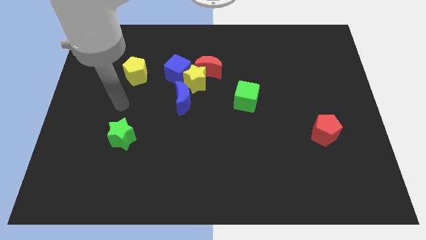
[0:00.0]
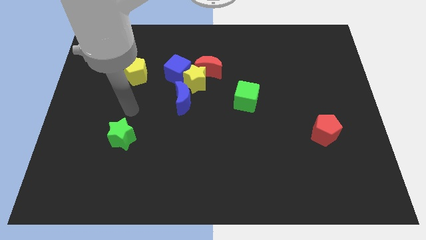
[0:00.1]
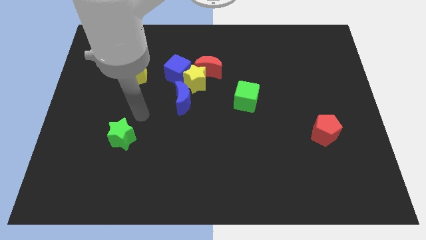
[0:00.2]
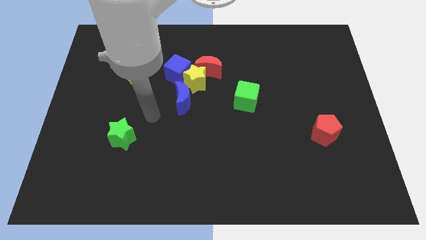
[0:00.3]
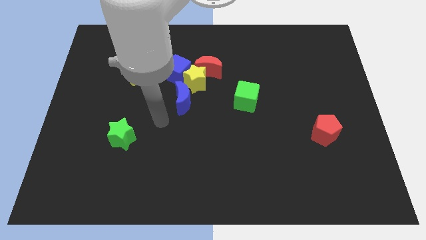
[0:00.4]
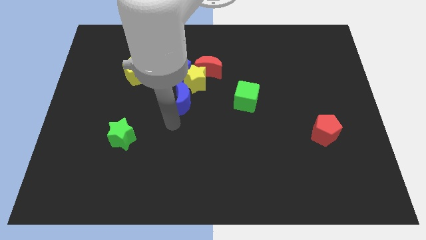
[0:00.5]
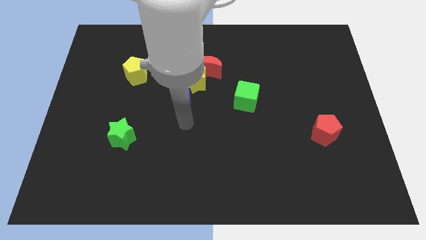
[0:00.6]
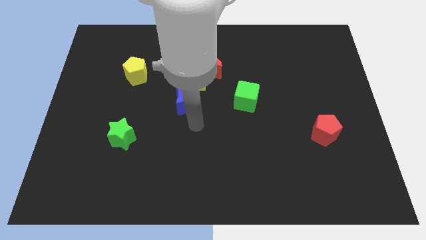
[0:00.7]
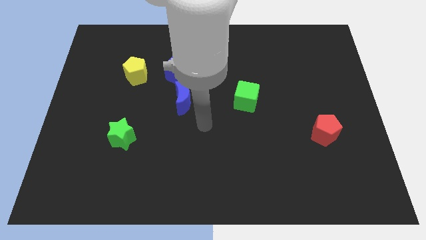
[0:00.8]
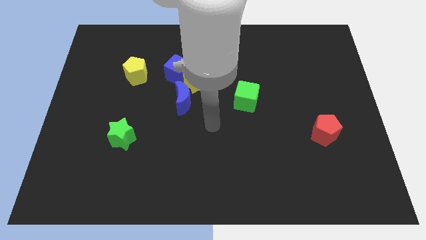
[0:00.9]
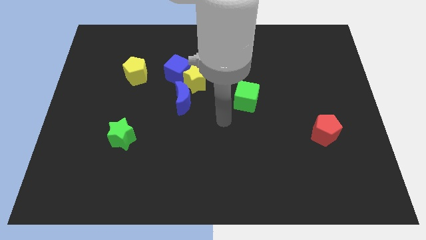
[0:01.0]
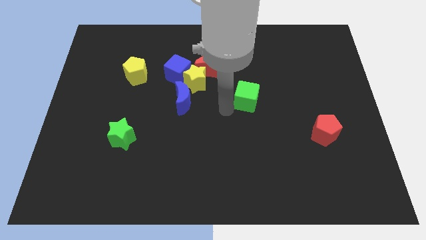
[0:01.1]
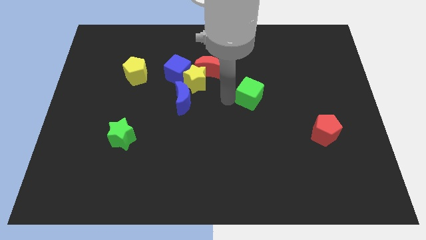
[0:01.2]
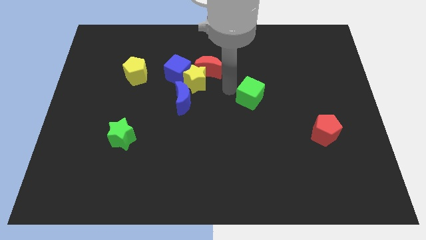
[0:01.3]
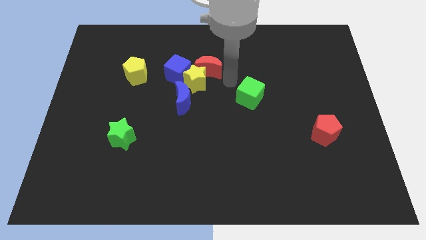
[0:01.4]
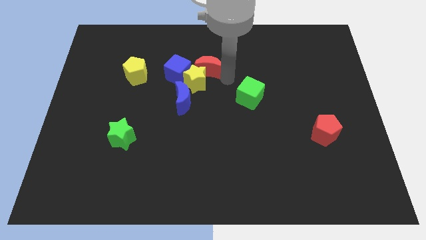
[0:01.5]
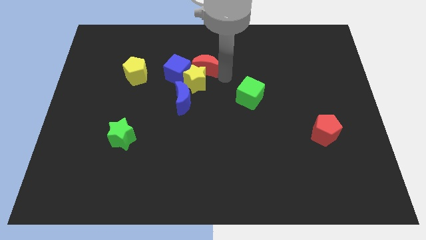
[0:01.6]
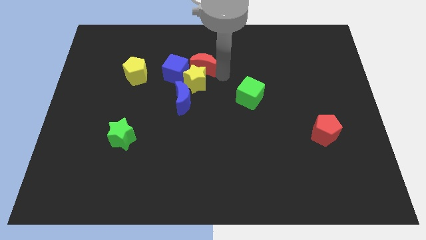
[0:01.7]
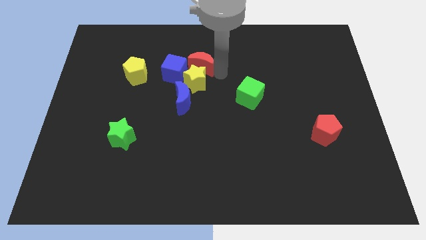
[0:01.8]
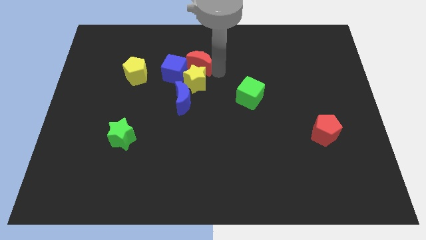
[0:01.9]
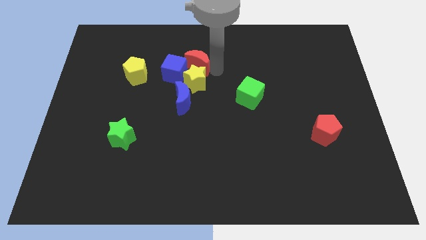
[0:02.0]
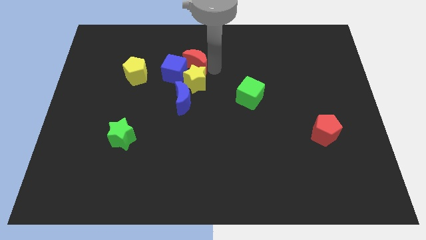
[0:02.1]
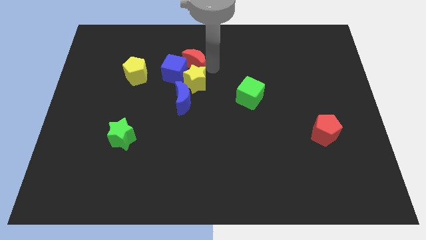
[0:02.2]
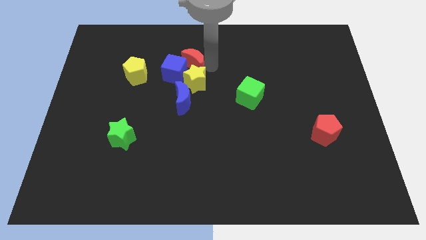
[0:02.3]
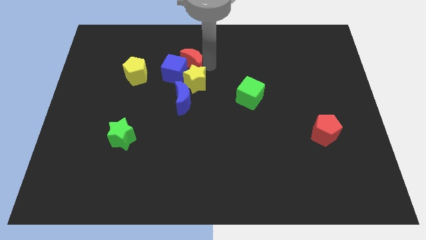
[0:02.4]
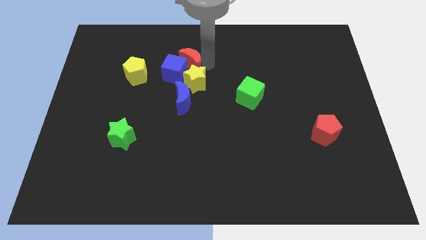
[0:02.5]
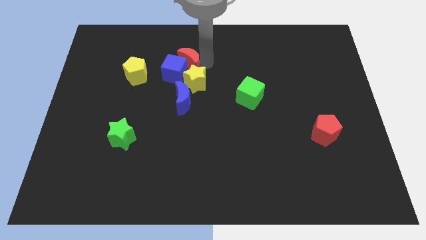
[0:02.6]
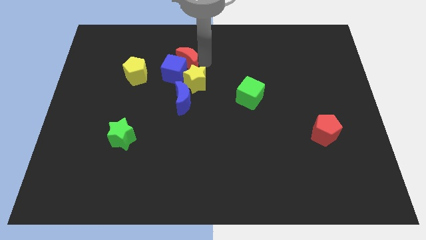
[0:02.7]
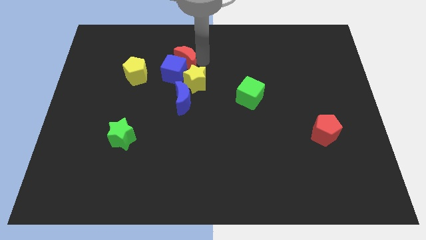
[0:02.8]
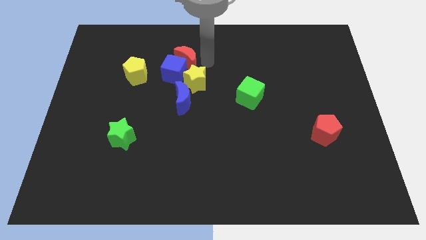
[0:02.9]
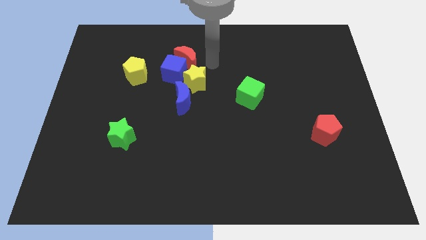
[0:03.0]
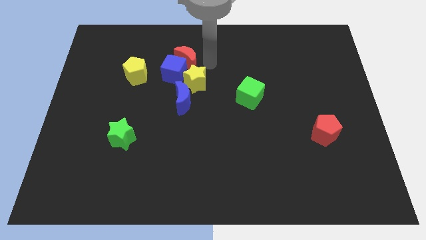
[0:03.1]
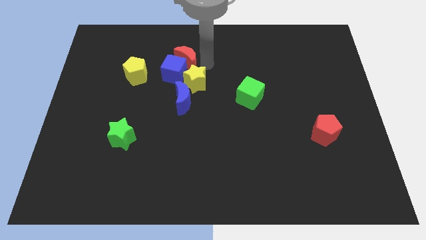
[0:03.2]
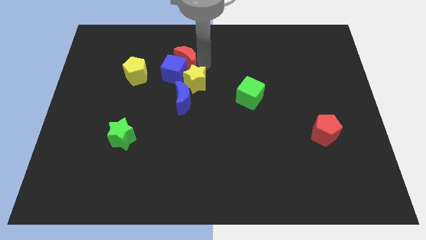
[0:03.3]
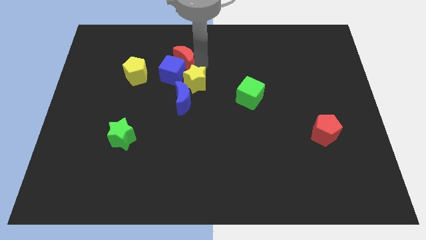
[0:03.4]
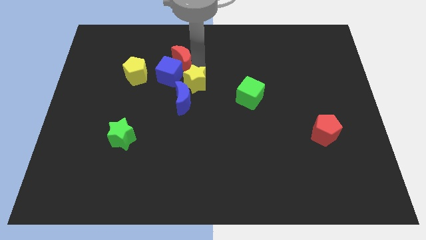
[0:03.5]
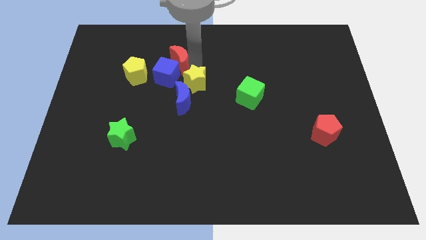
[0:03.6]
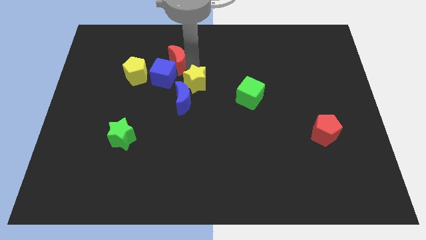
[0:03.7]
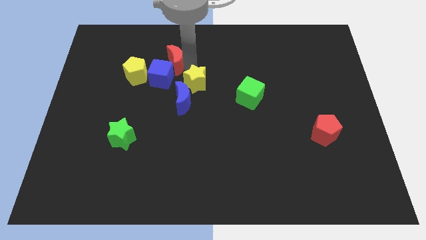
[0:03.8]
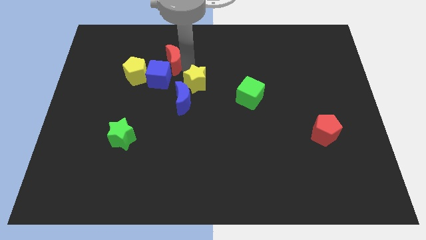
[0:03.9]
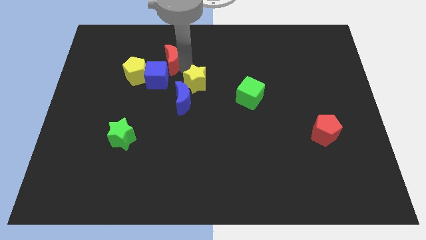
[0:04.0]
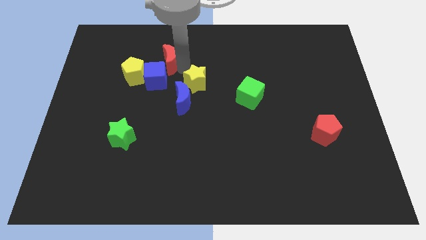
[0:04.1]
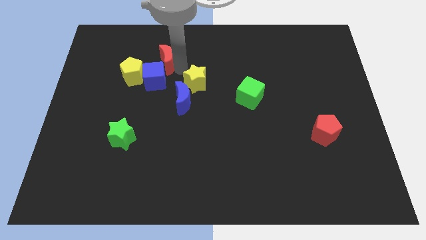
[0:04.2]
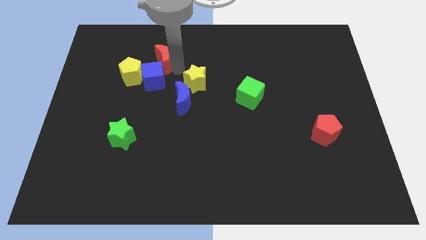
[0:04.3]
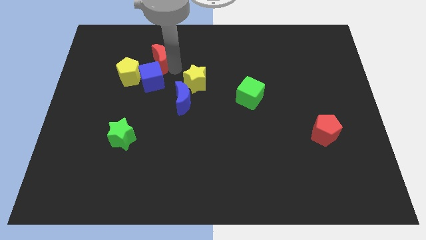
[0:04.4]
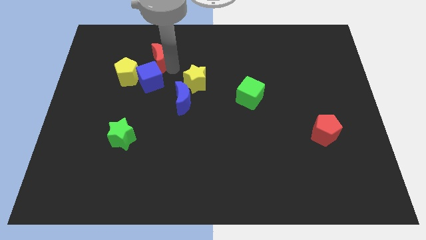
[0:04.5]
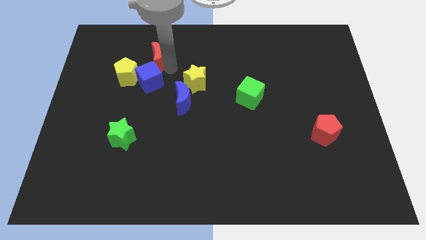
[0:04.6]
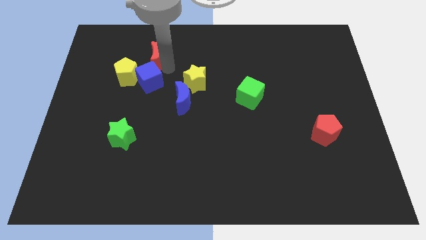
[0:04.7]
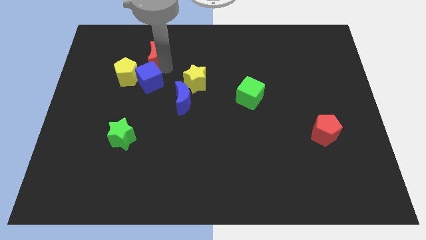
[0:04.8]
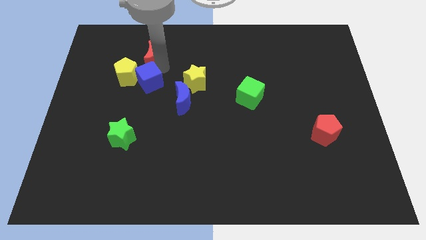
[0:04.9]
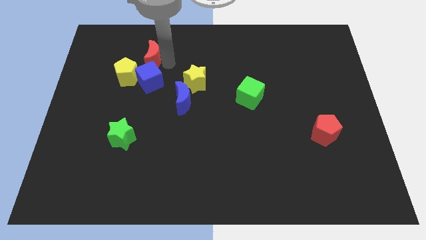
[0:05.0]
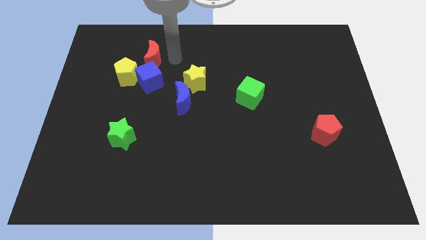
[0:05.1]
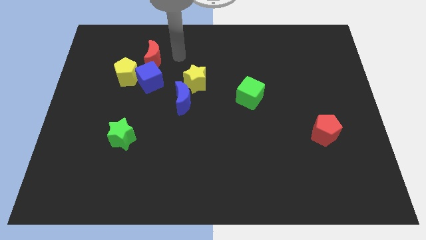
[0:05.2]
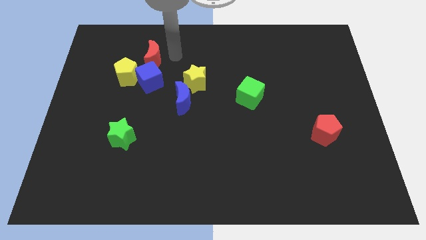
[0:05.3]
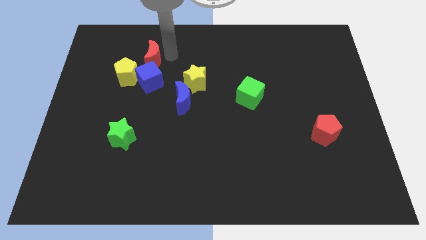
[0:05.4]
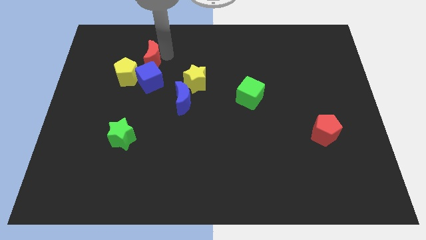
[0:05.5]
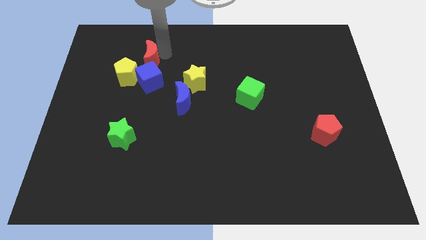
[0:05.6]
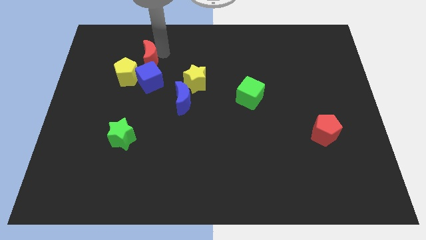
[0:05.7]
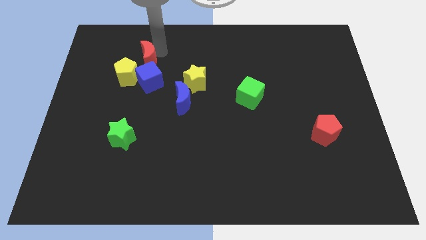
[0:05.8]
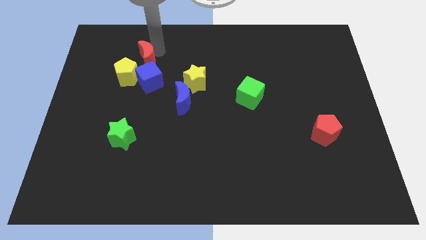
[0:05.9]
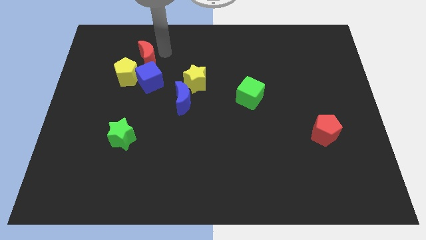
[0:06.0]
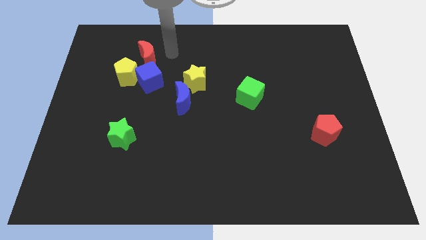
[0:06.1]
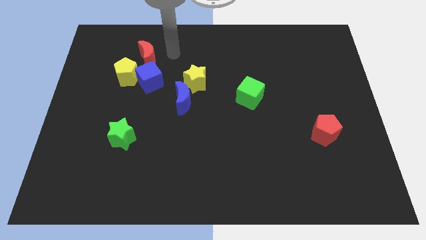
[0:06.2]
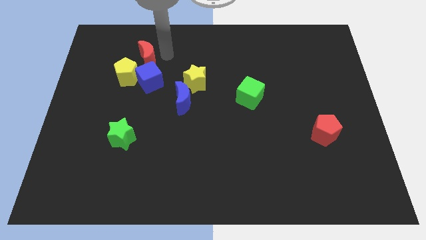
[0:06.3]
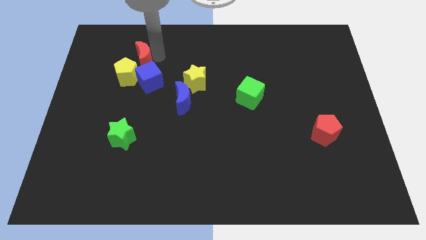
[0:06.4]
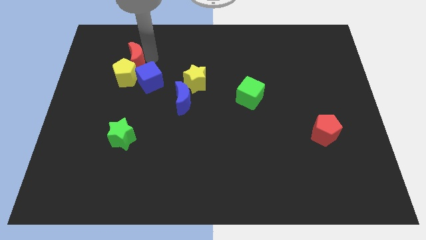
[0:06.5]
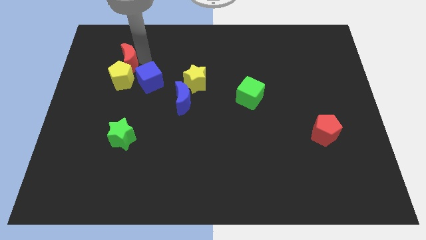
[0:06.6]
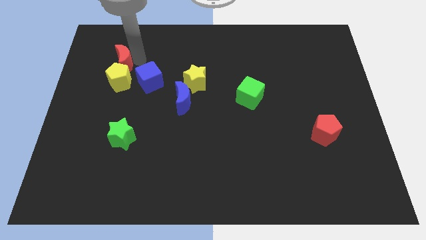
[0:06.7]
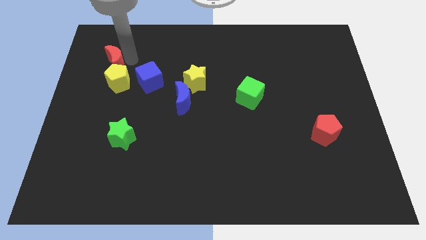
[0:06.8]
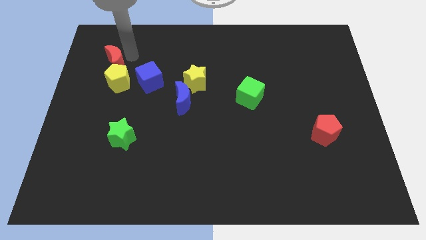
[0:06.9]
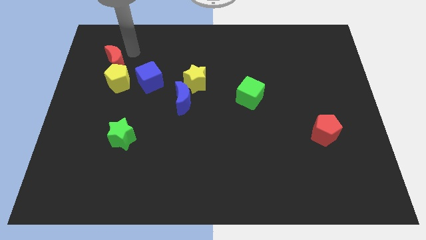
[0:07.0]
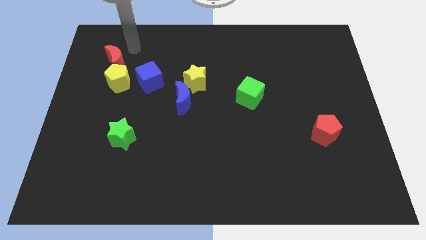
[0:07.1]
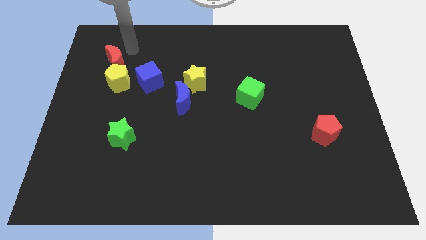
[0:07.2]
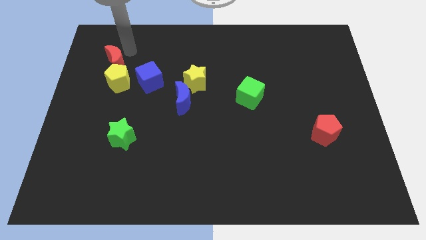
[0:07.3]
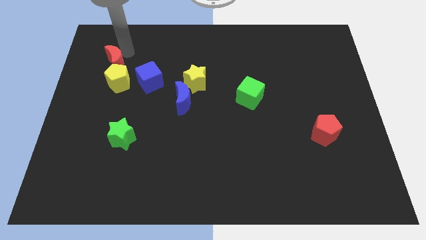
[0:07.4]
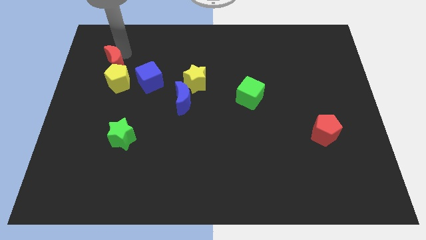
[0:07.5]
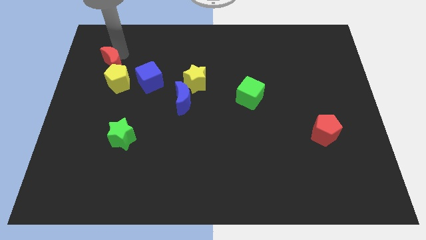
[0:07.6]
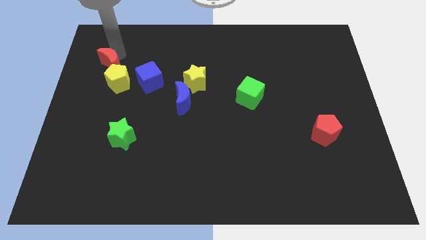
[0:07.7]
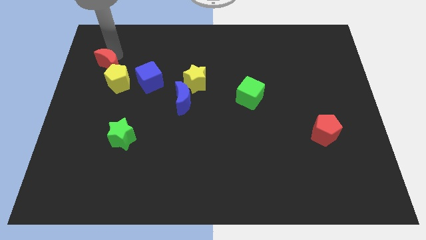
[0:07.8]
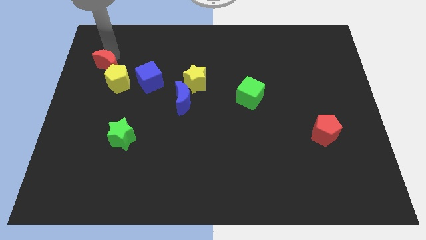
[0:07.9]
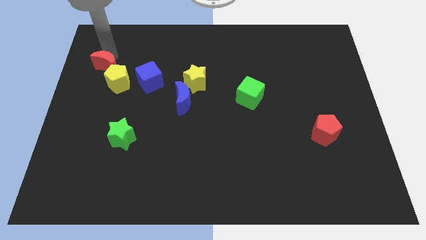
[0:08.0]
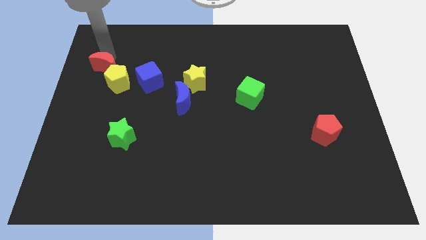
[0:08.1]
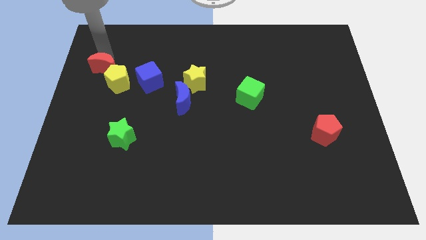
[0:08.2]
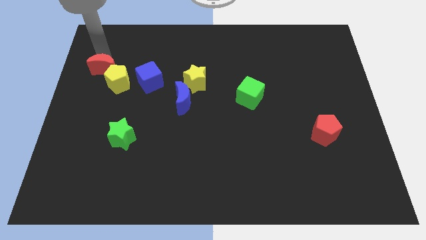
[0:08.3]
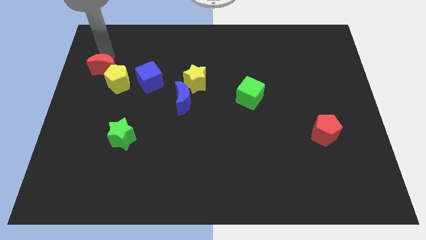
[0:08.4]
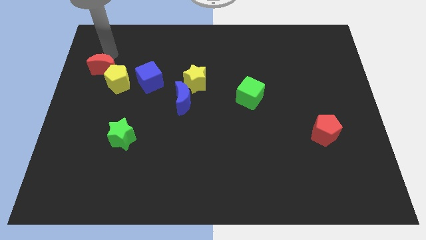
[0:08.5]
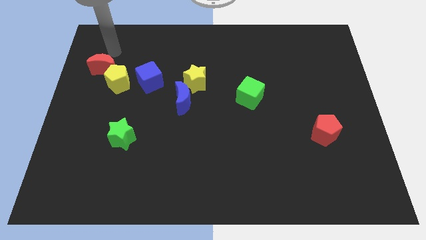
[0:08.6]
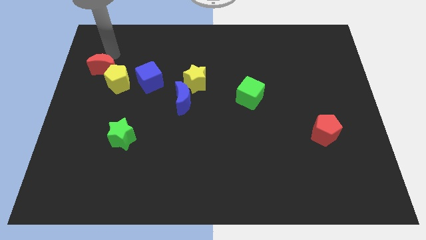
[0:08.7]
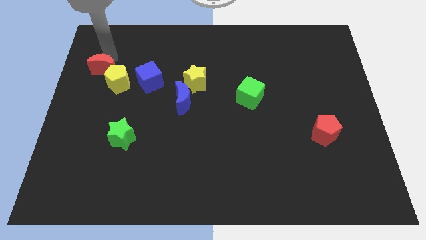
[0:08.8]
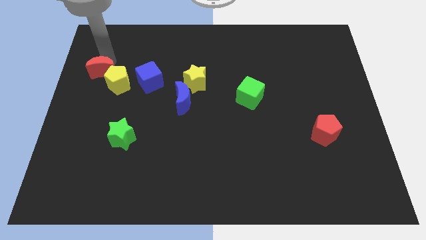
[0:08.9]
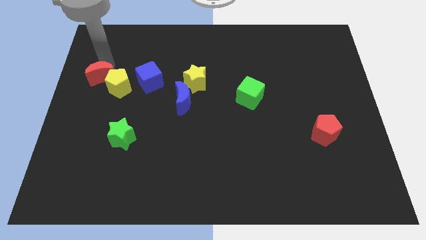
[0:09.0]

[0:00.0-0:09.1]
put the red moon to the center left
